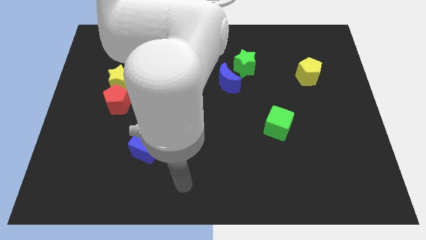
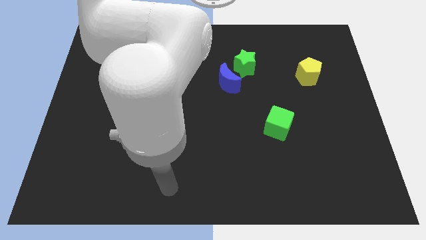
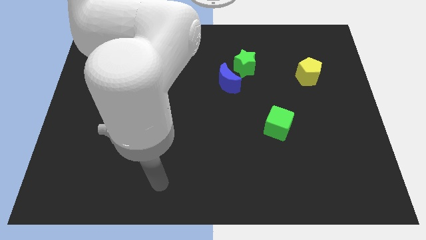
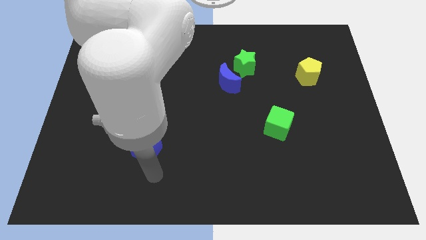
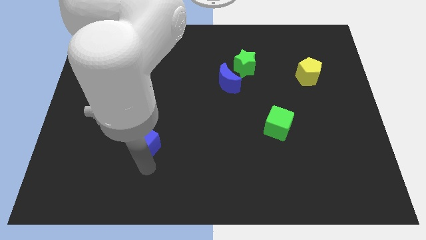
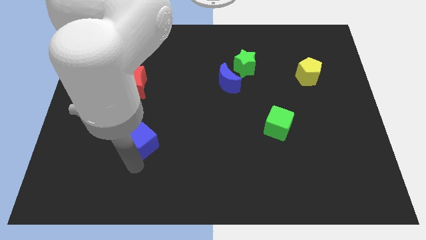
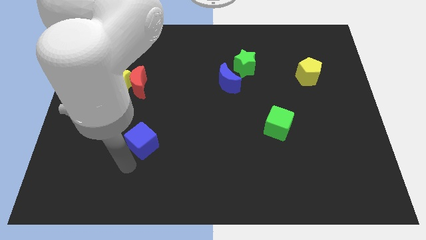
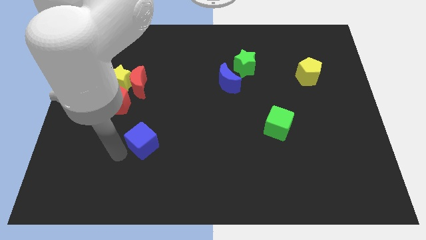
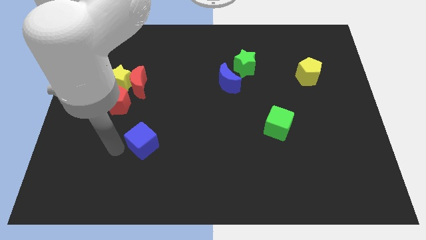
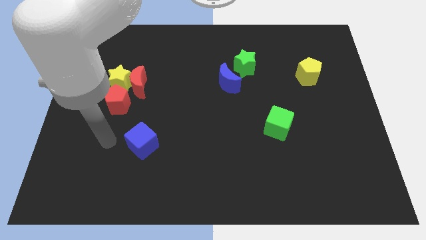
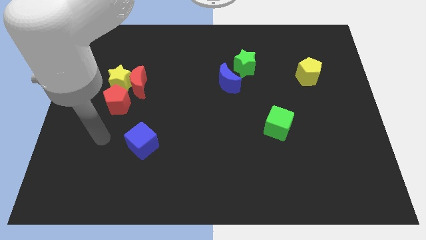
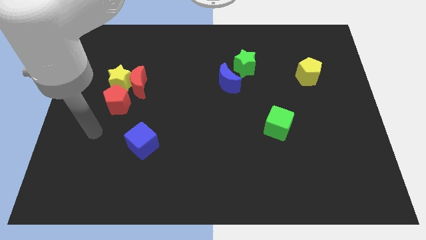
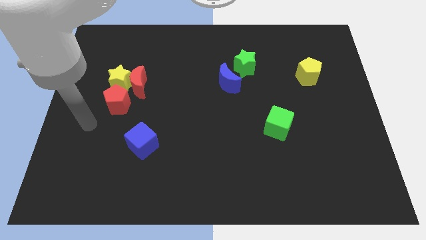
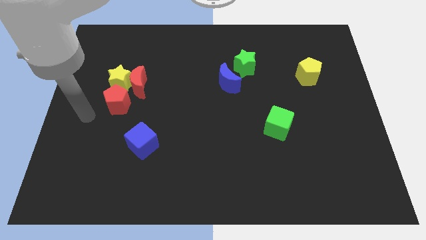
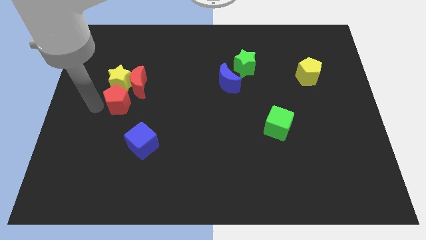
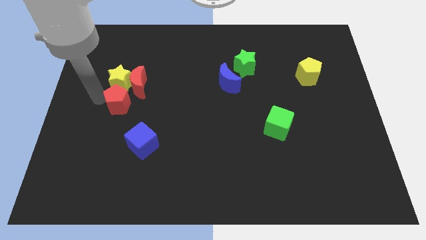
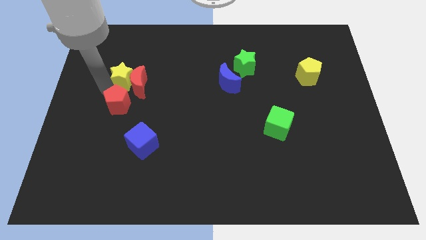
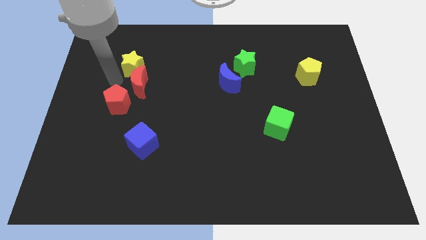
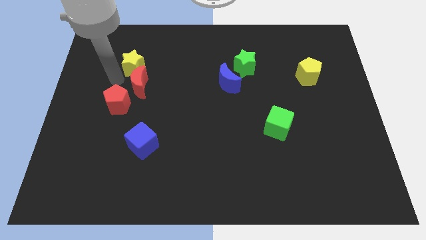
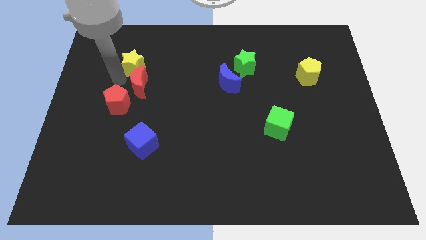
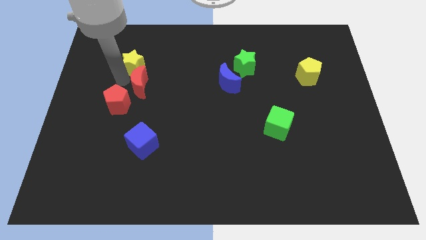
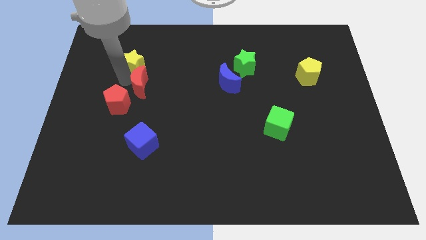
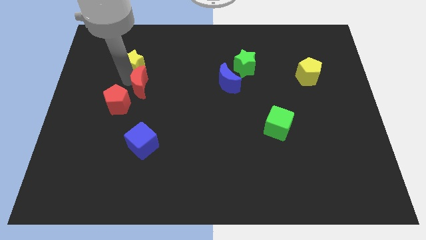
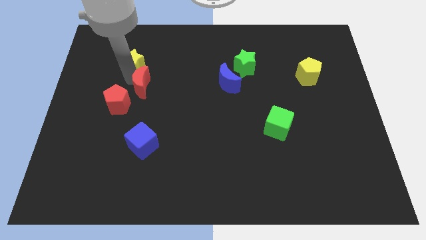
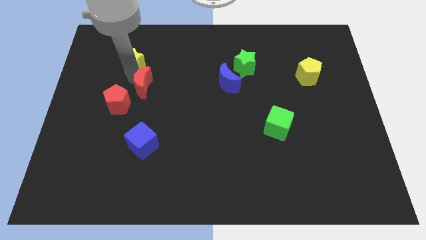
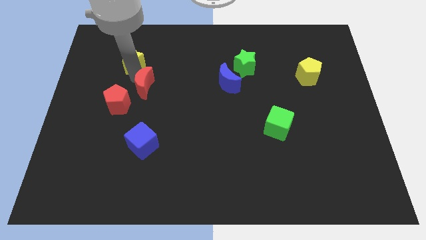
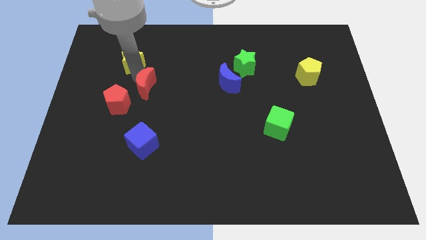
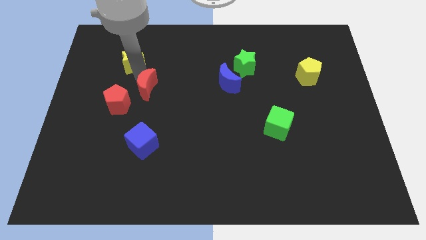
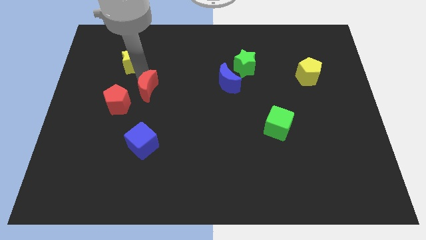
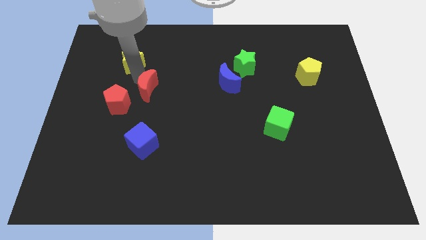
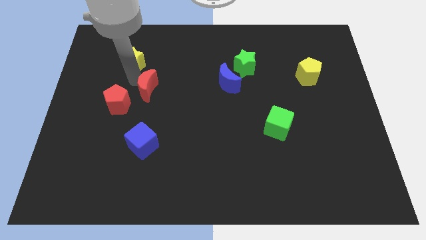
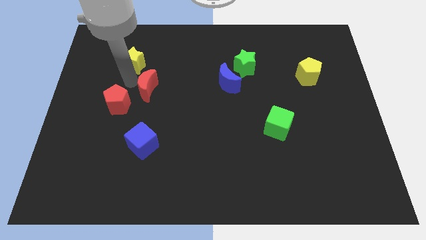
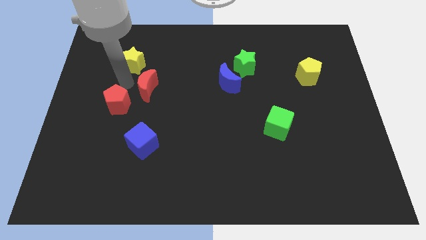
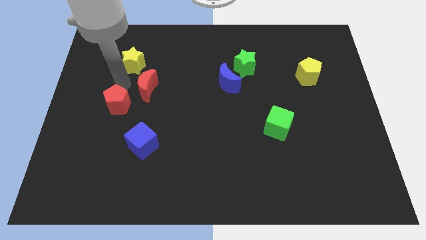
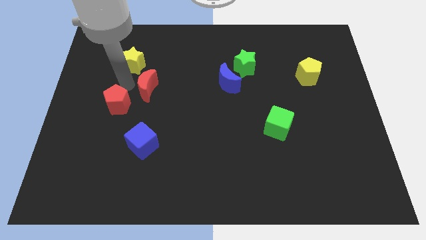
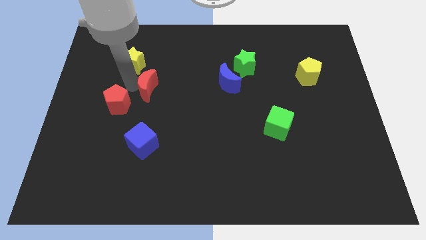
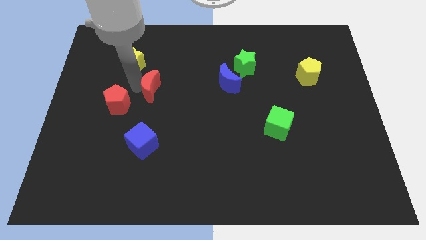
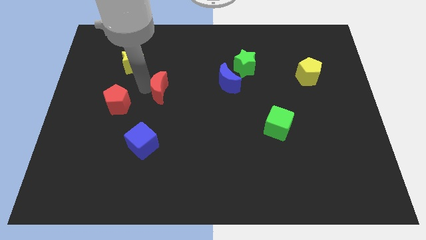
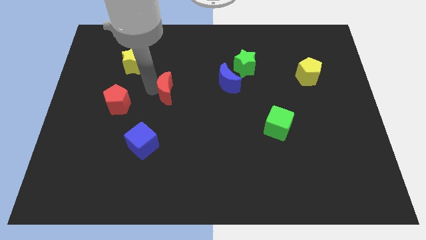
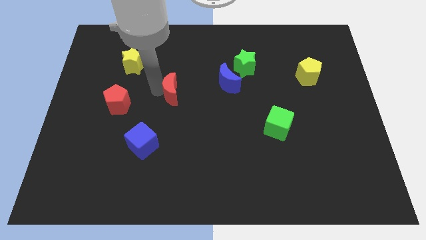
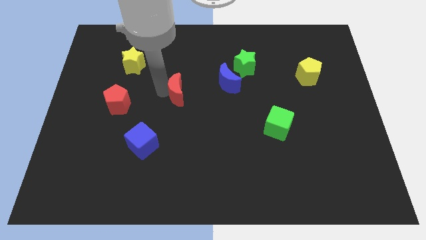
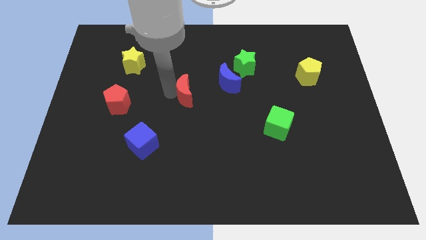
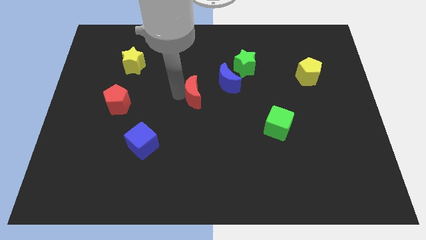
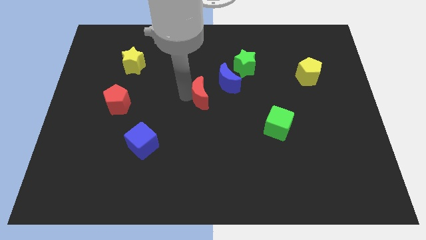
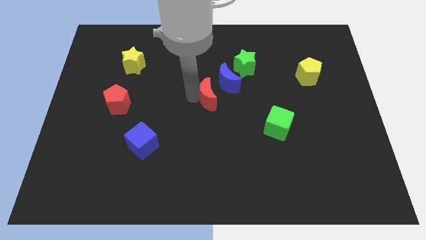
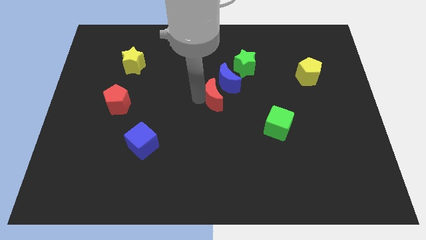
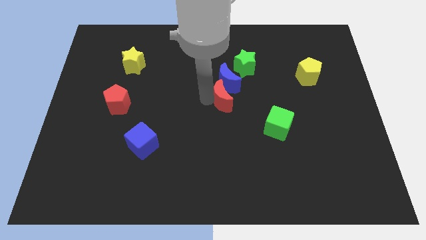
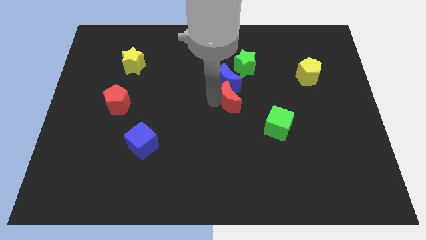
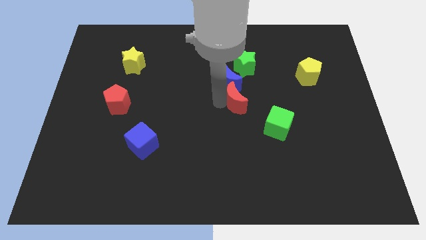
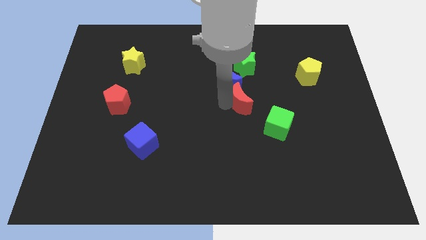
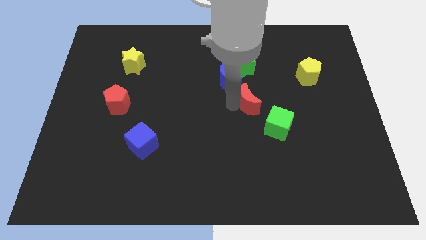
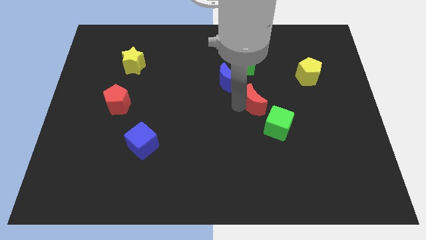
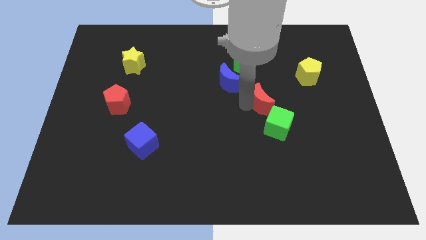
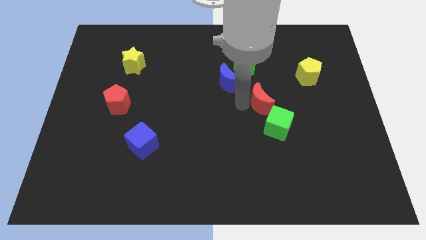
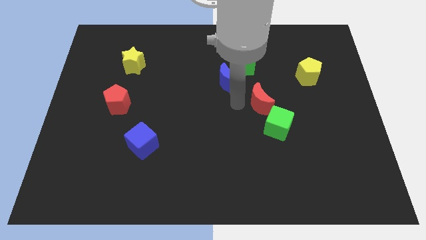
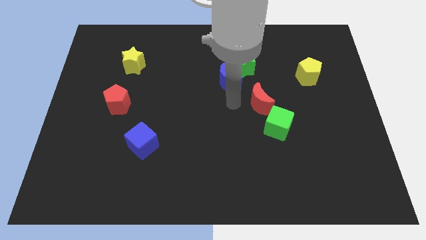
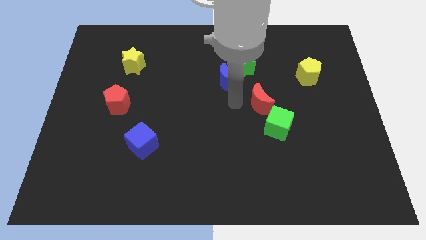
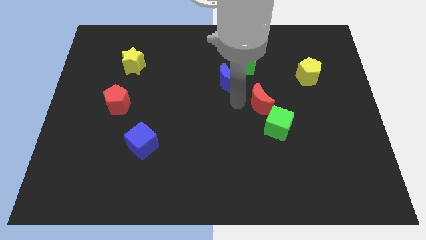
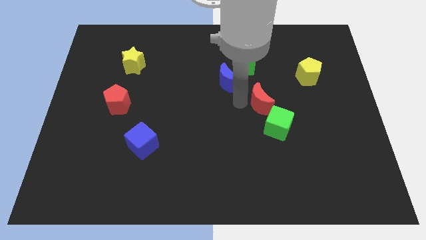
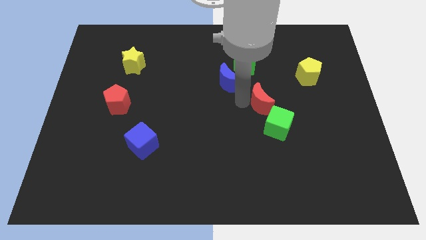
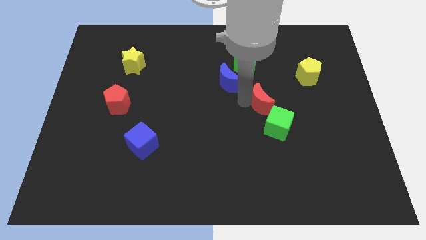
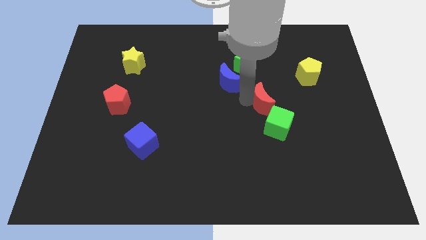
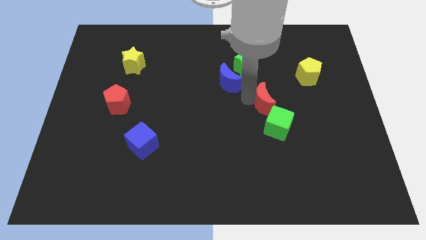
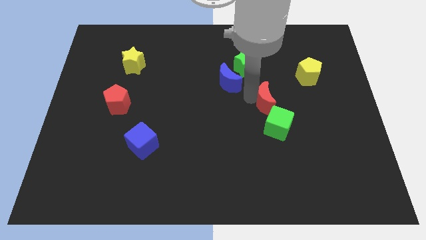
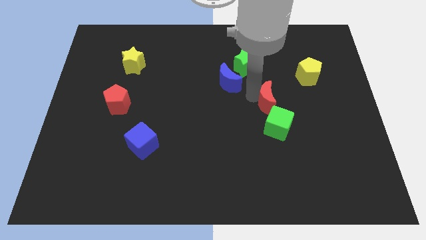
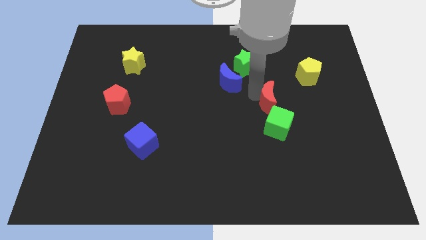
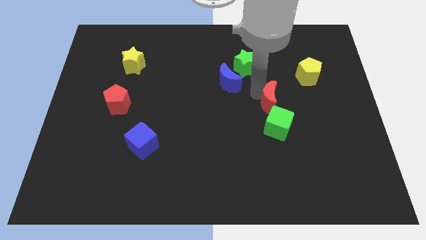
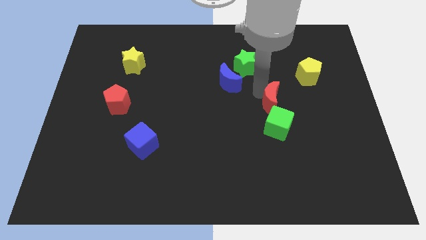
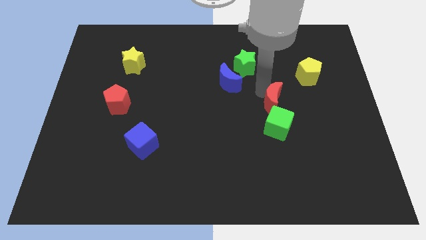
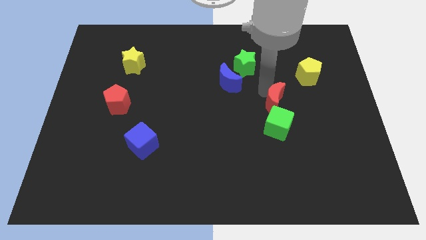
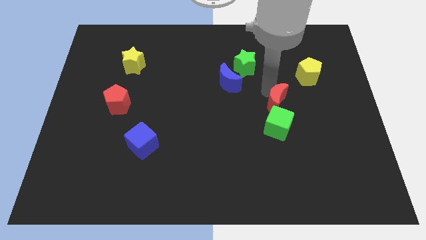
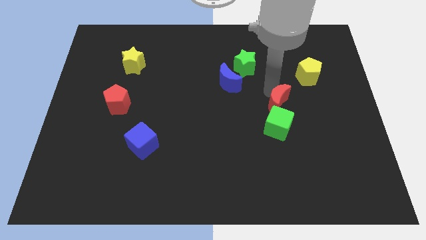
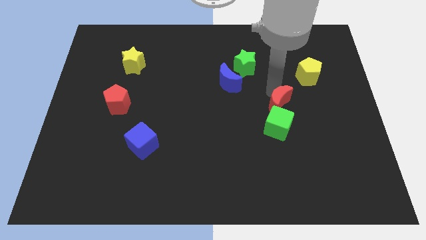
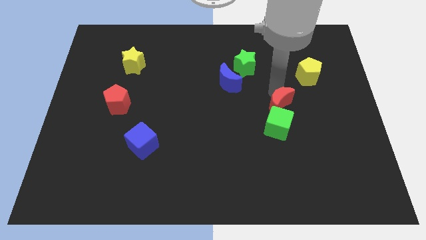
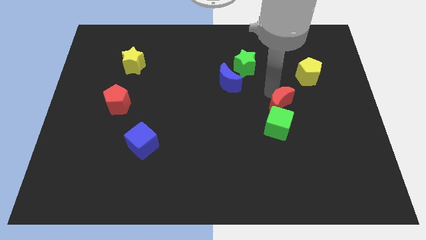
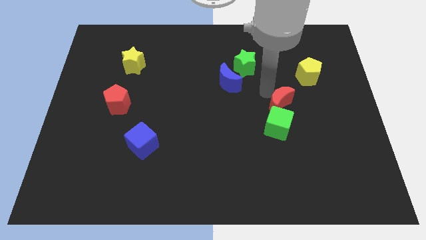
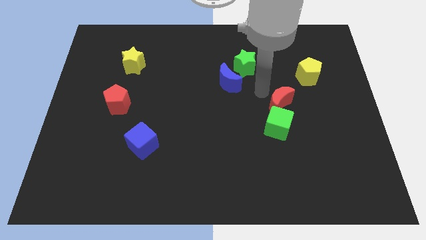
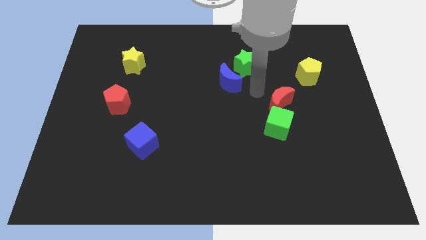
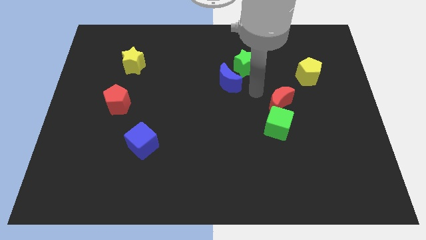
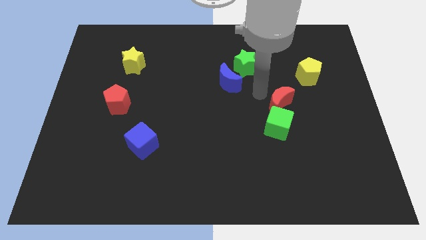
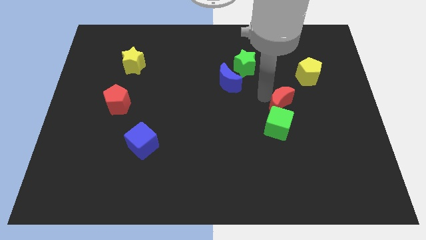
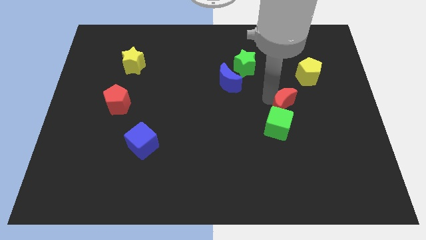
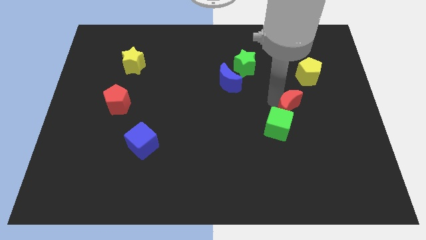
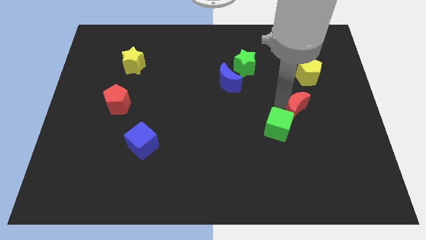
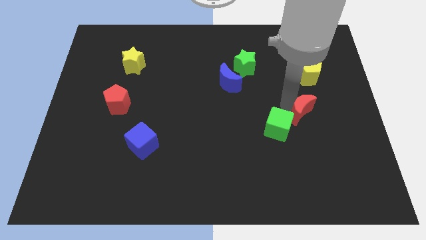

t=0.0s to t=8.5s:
put the red moon to the right side of the green cube
